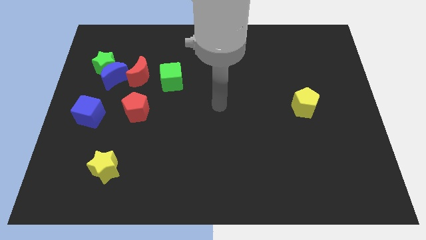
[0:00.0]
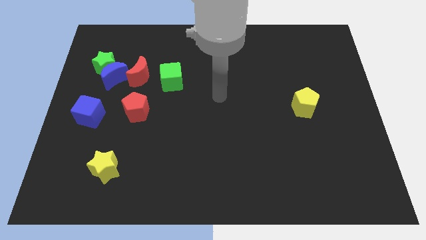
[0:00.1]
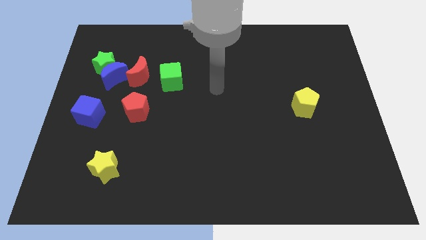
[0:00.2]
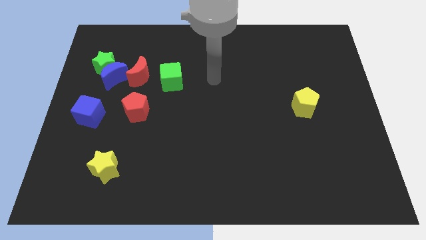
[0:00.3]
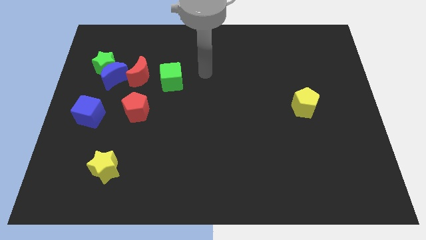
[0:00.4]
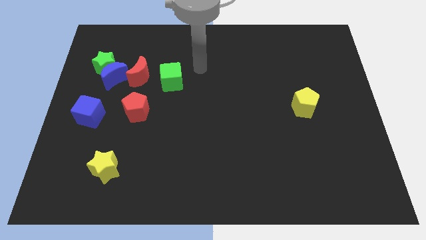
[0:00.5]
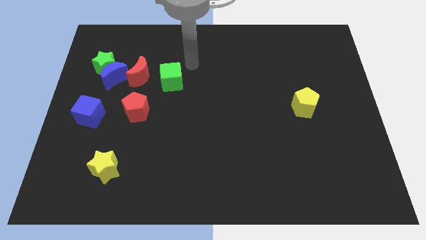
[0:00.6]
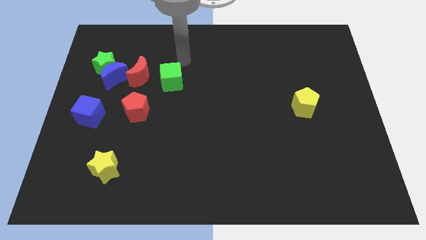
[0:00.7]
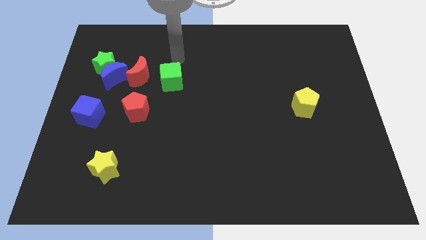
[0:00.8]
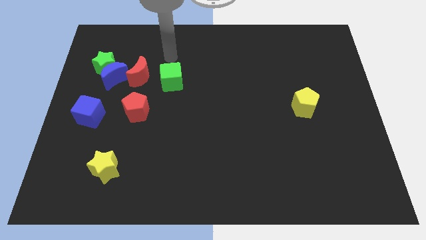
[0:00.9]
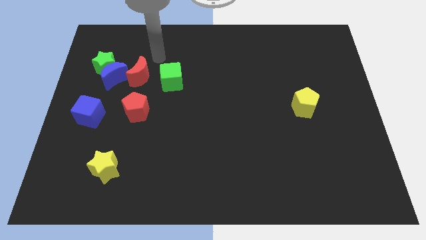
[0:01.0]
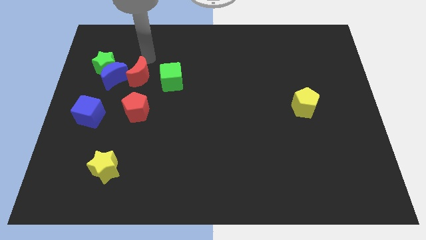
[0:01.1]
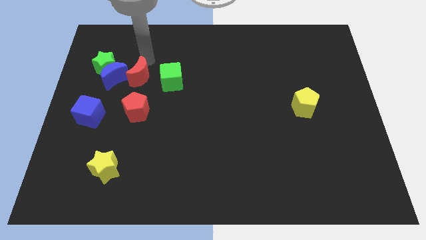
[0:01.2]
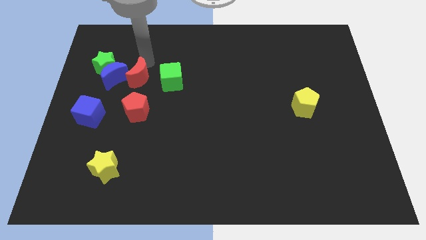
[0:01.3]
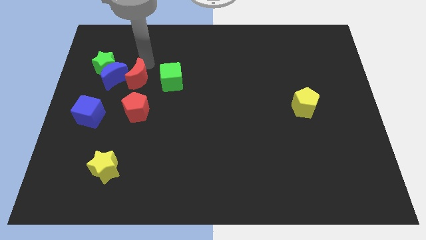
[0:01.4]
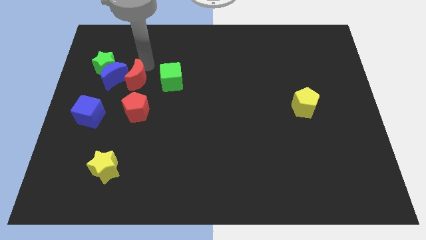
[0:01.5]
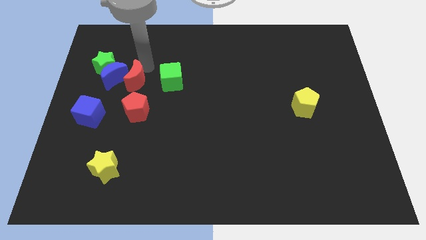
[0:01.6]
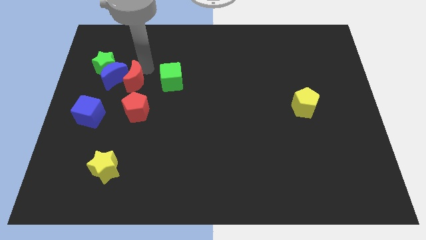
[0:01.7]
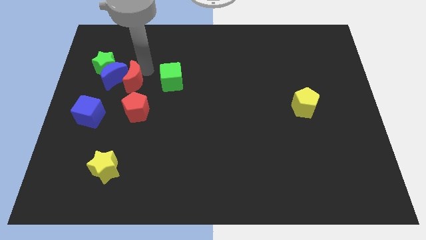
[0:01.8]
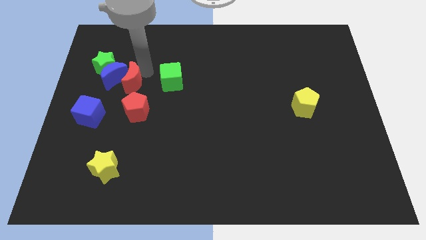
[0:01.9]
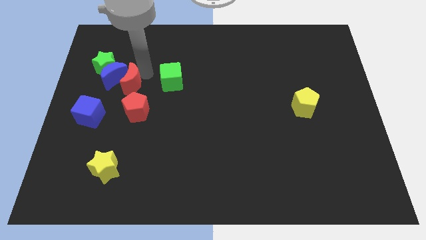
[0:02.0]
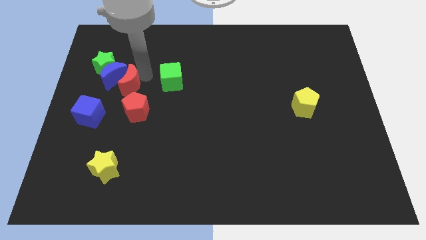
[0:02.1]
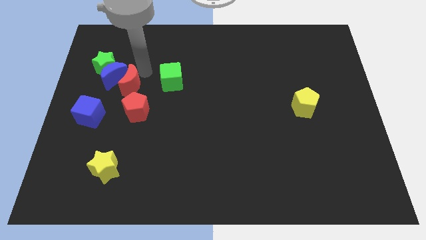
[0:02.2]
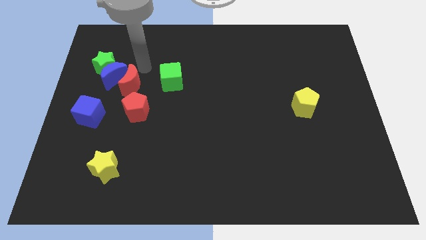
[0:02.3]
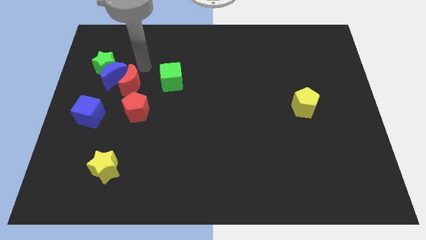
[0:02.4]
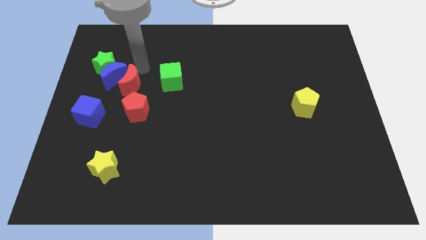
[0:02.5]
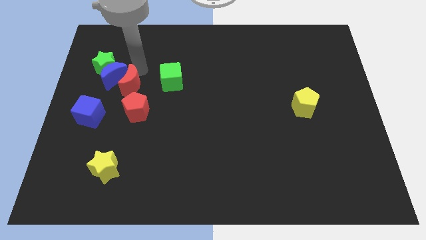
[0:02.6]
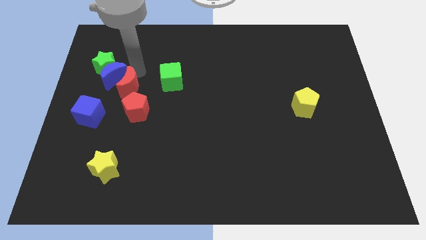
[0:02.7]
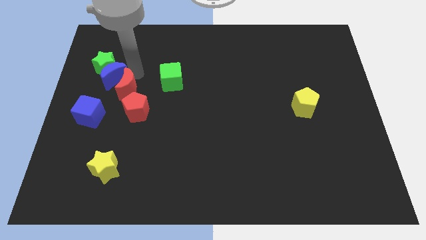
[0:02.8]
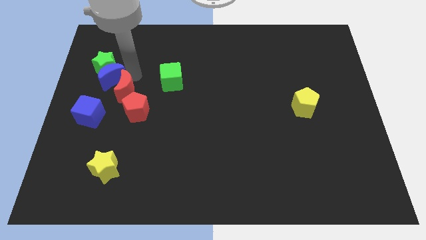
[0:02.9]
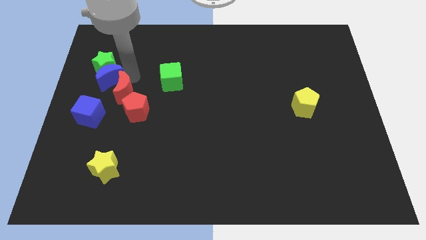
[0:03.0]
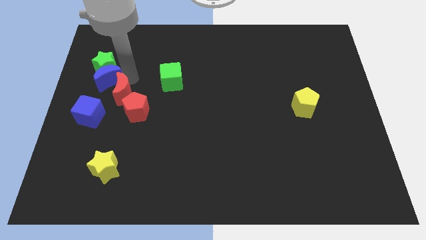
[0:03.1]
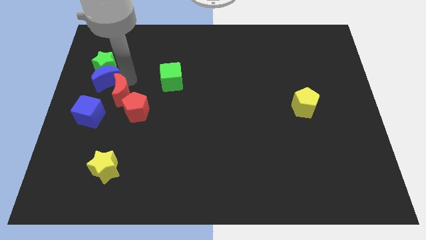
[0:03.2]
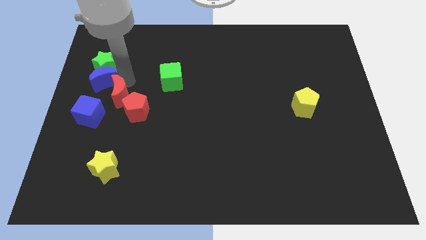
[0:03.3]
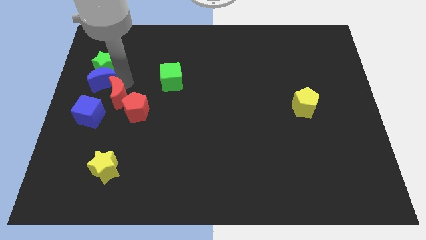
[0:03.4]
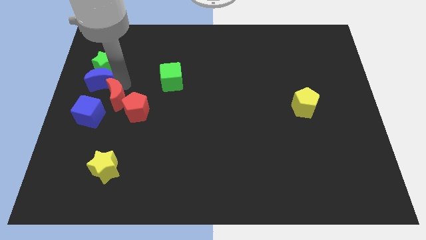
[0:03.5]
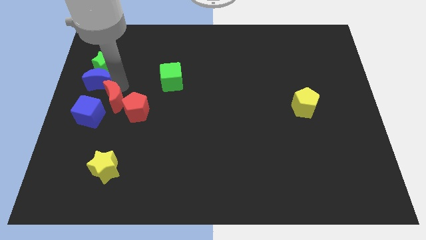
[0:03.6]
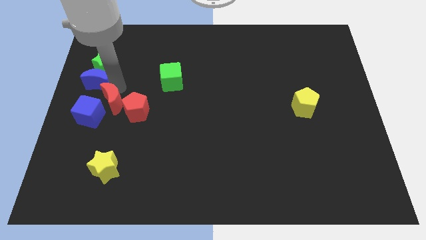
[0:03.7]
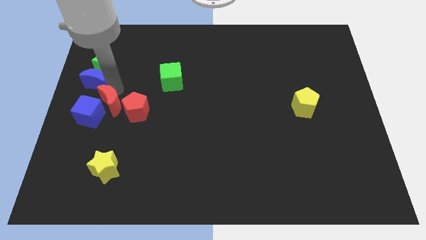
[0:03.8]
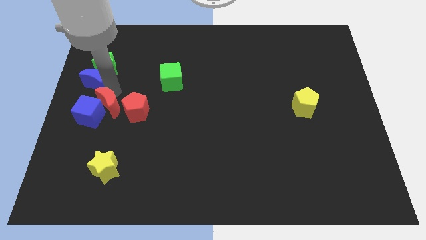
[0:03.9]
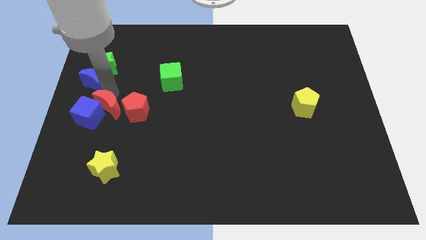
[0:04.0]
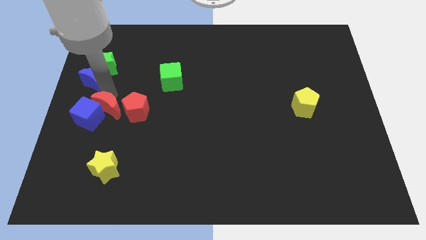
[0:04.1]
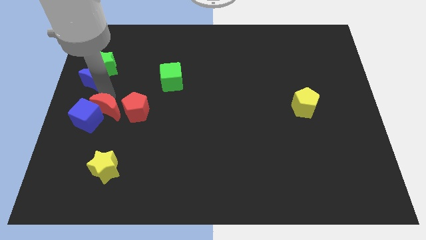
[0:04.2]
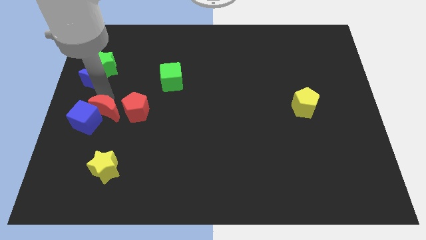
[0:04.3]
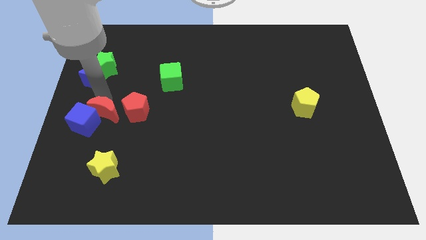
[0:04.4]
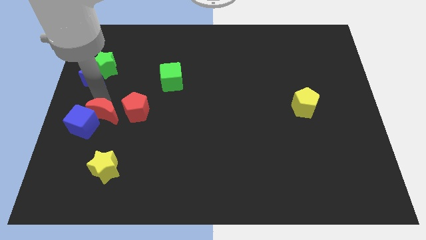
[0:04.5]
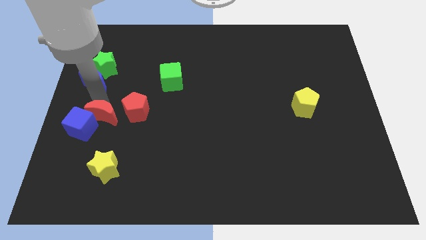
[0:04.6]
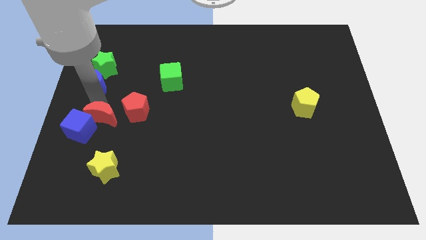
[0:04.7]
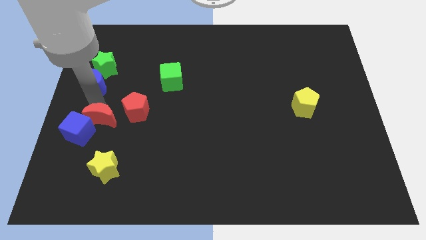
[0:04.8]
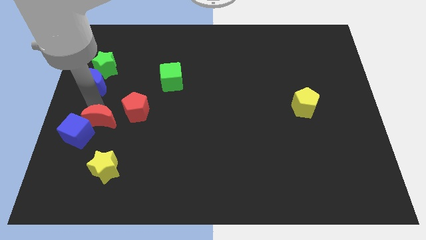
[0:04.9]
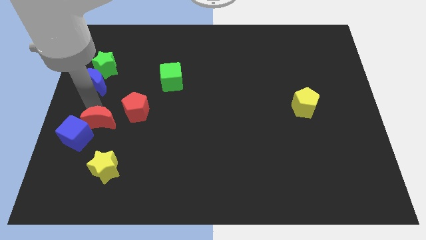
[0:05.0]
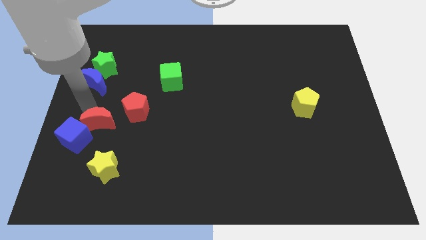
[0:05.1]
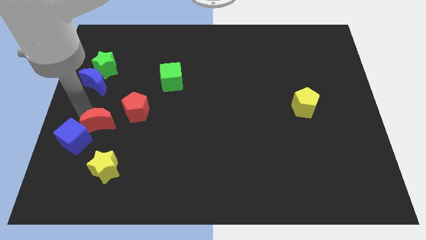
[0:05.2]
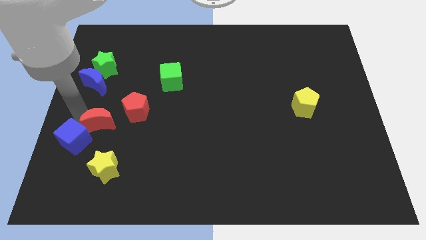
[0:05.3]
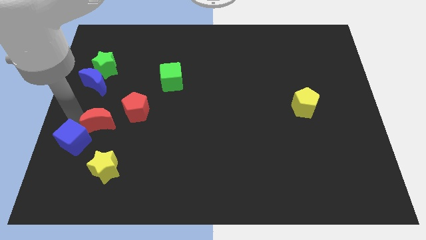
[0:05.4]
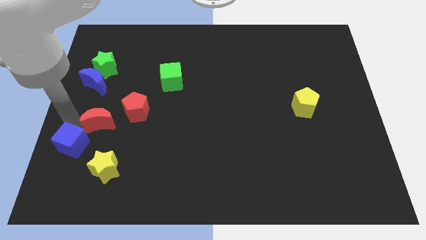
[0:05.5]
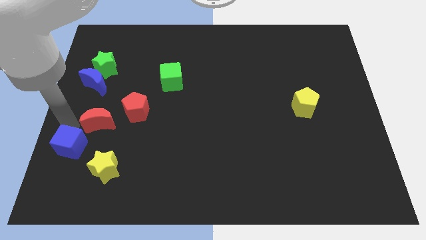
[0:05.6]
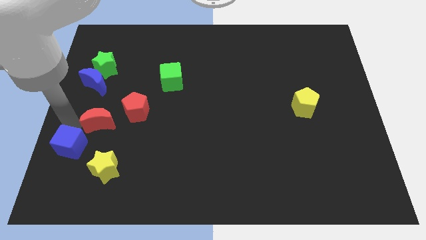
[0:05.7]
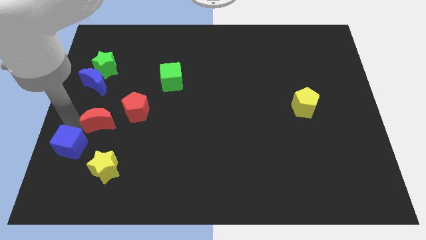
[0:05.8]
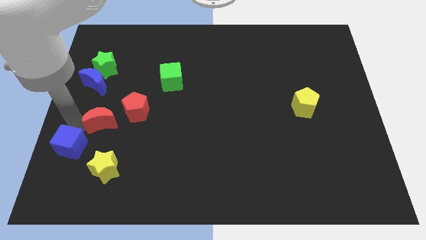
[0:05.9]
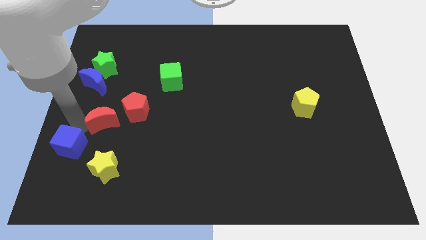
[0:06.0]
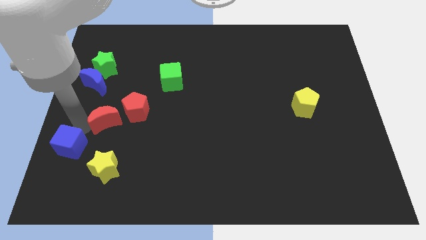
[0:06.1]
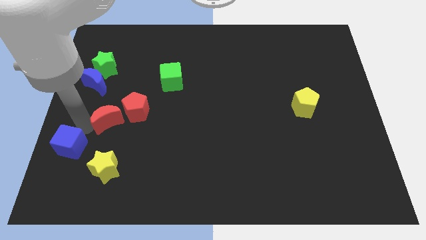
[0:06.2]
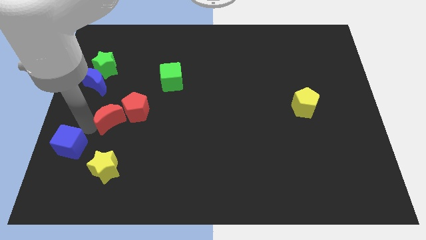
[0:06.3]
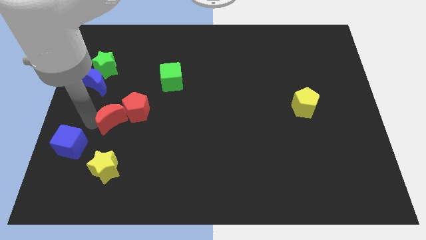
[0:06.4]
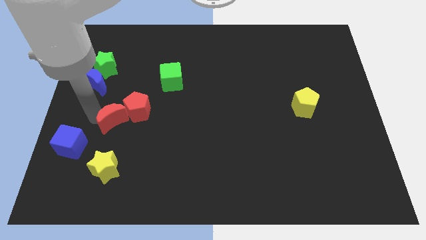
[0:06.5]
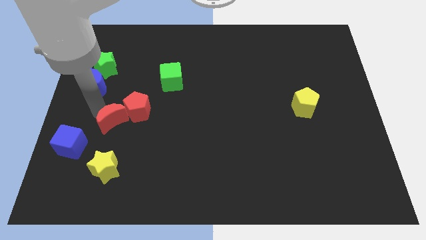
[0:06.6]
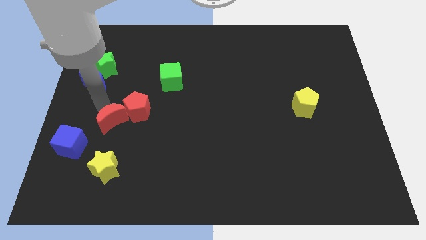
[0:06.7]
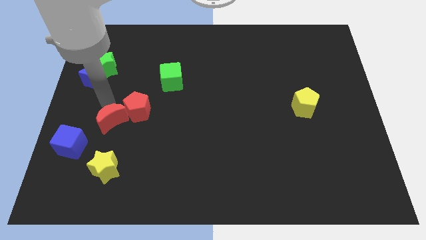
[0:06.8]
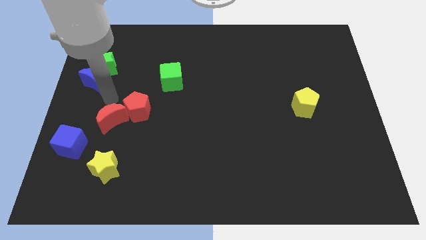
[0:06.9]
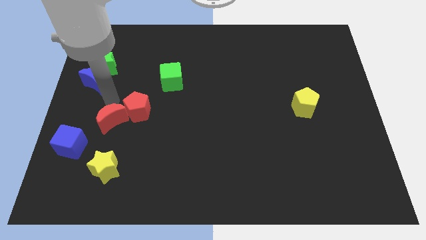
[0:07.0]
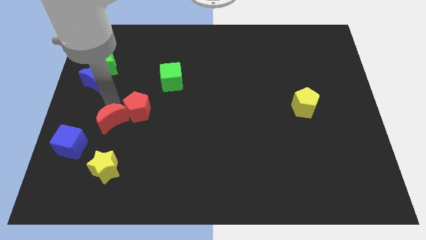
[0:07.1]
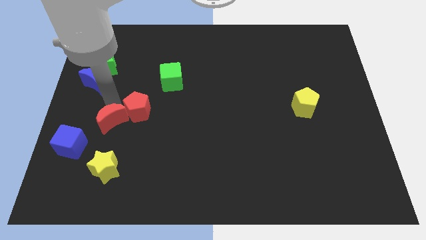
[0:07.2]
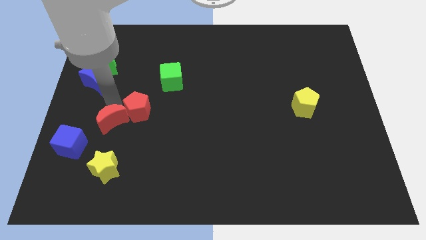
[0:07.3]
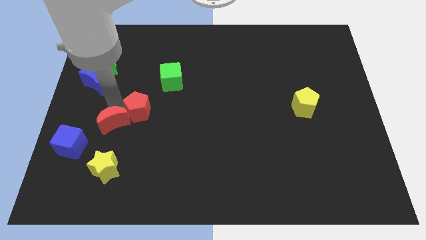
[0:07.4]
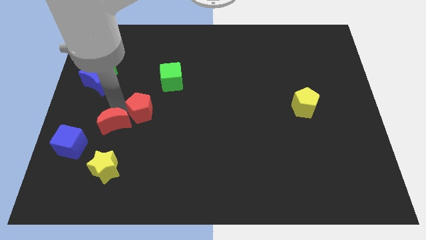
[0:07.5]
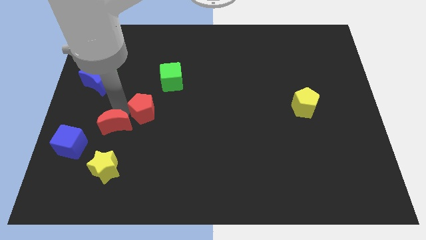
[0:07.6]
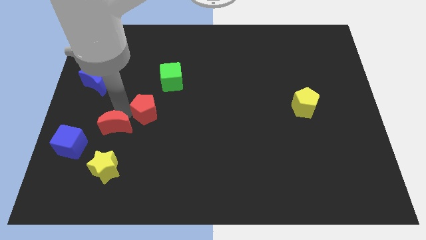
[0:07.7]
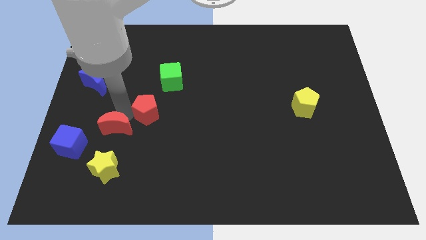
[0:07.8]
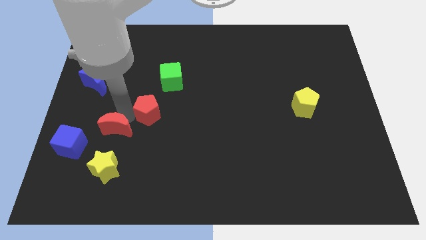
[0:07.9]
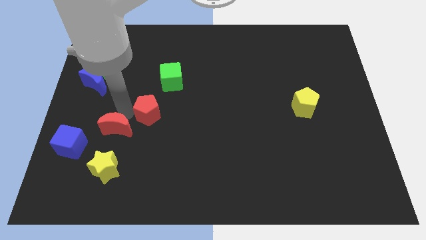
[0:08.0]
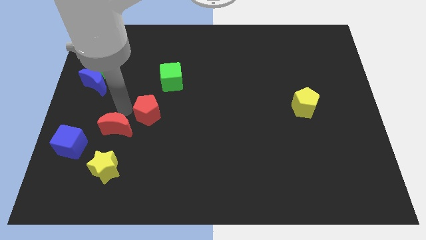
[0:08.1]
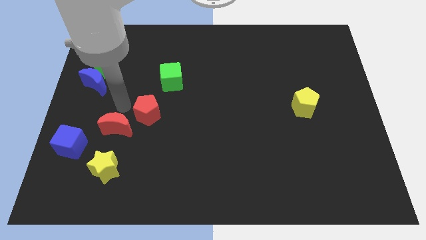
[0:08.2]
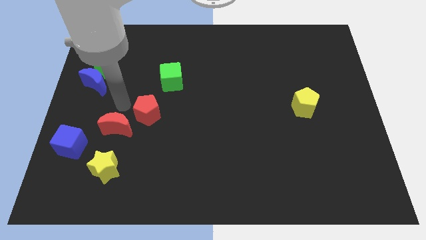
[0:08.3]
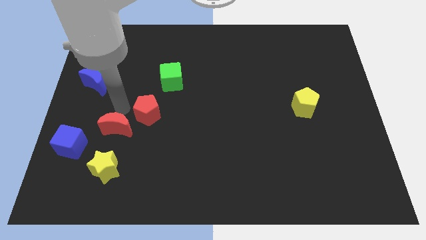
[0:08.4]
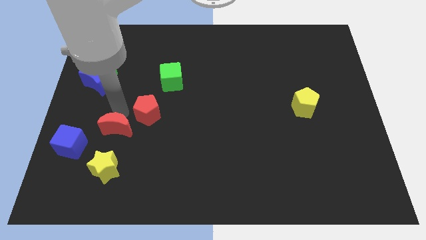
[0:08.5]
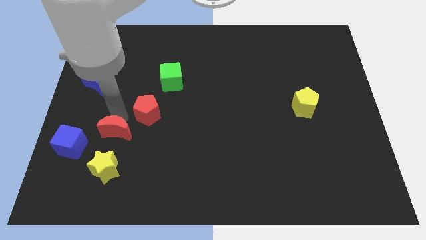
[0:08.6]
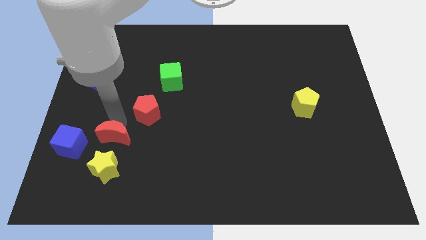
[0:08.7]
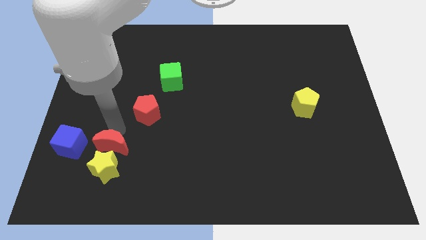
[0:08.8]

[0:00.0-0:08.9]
move the red moon close to the yellow star
